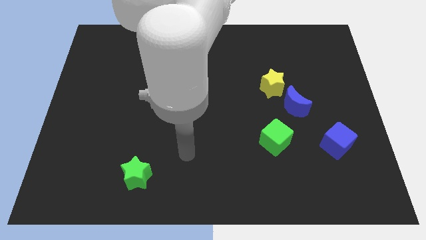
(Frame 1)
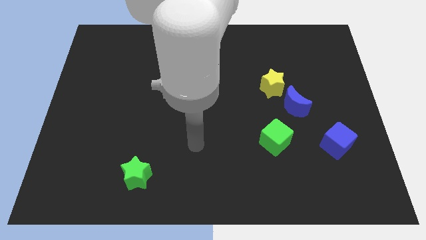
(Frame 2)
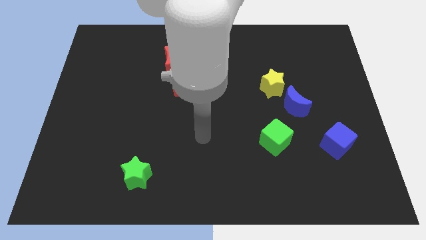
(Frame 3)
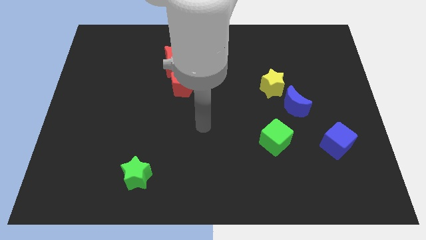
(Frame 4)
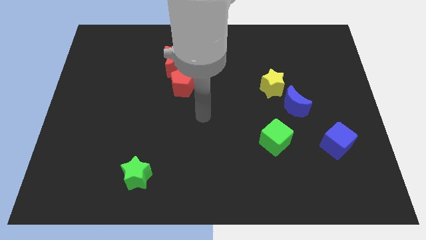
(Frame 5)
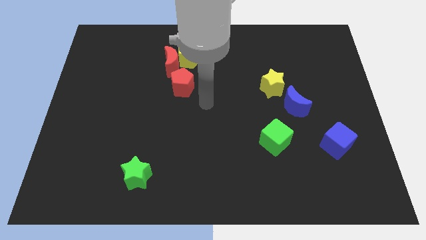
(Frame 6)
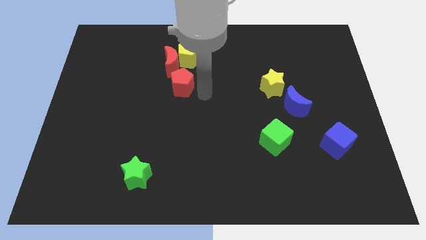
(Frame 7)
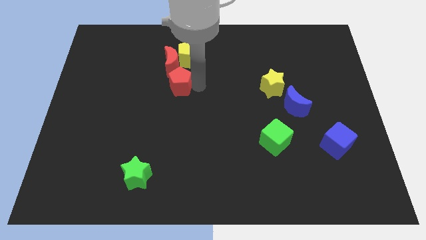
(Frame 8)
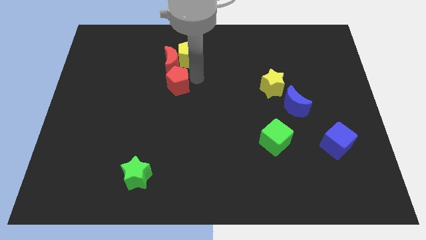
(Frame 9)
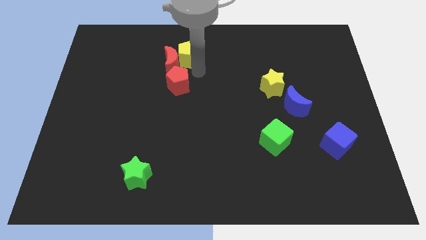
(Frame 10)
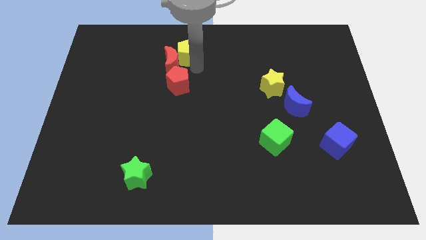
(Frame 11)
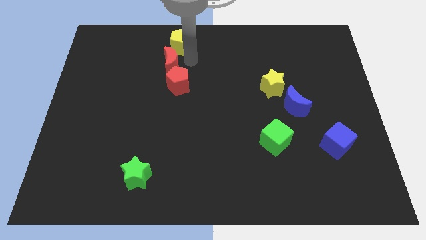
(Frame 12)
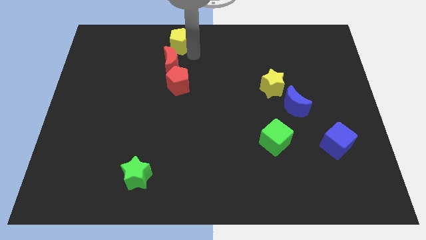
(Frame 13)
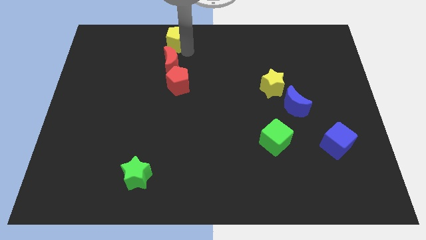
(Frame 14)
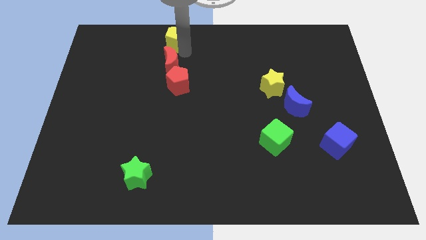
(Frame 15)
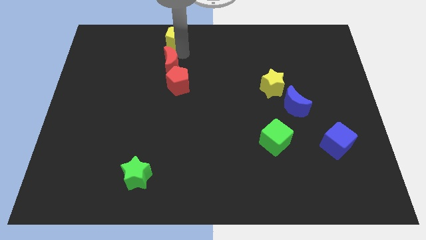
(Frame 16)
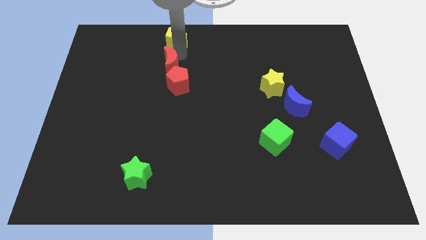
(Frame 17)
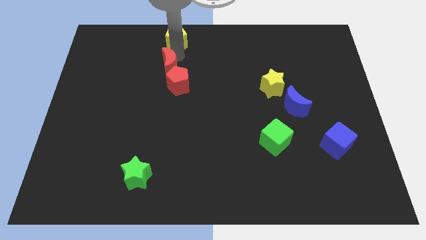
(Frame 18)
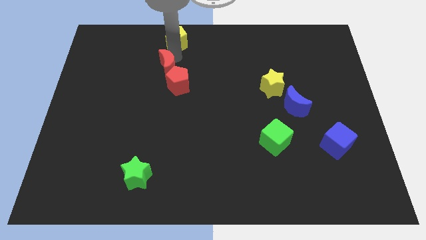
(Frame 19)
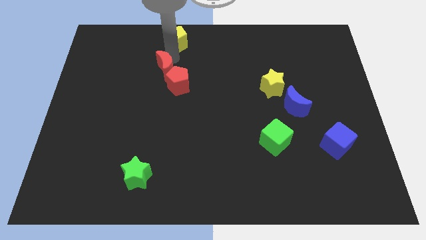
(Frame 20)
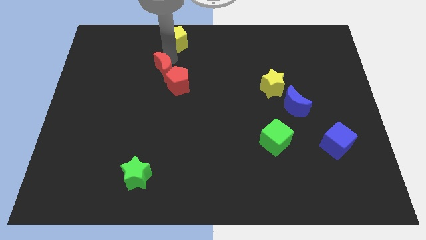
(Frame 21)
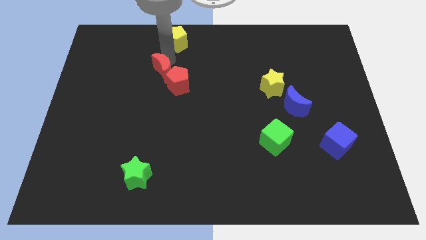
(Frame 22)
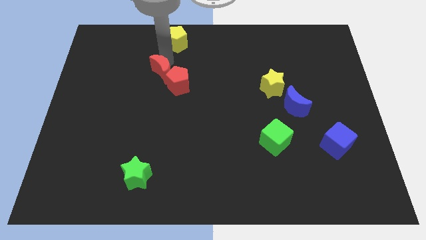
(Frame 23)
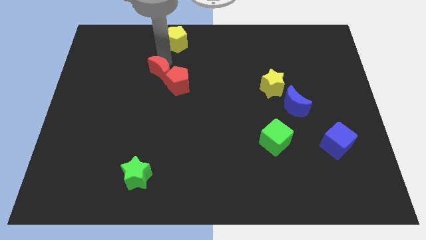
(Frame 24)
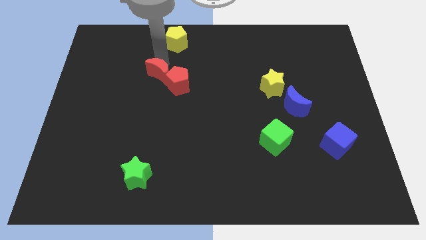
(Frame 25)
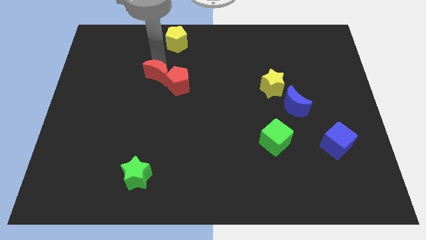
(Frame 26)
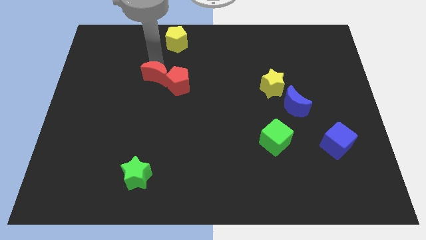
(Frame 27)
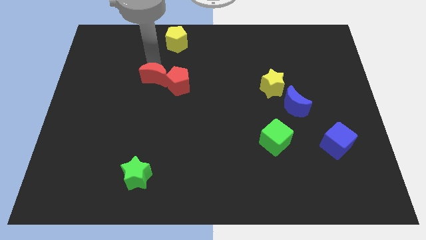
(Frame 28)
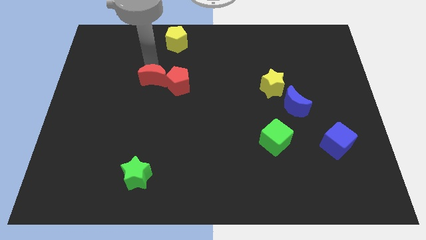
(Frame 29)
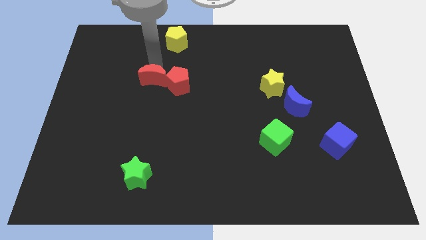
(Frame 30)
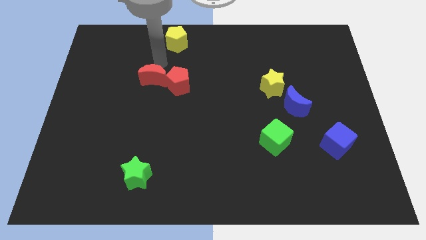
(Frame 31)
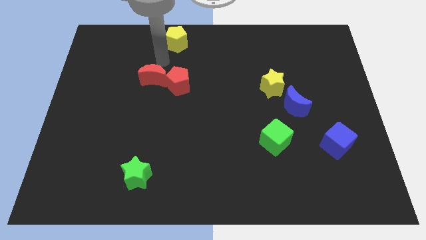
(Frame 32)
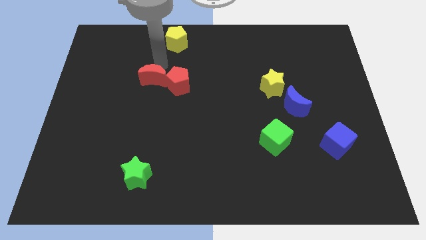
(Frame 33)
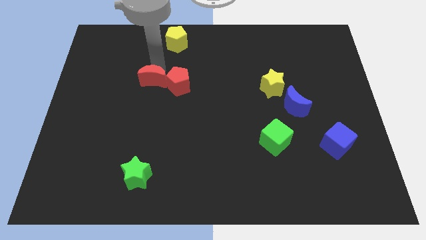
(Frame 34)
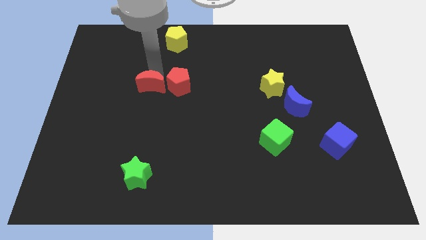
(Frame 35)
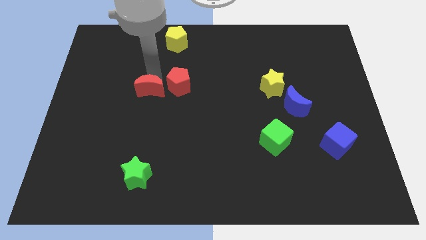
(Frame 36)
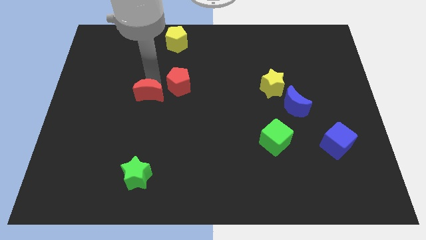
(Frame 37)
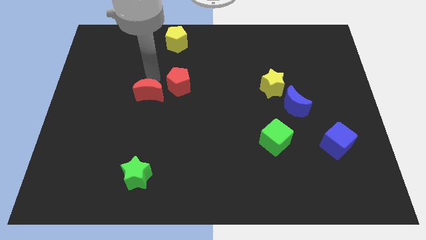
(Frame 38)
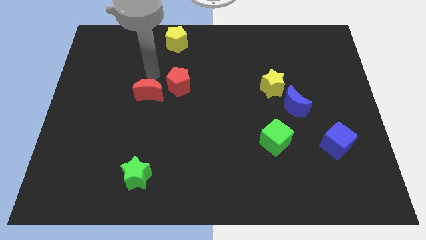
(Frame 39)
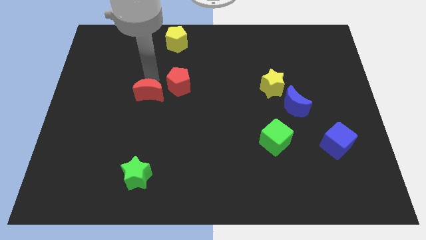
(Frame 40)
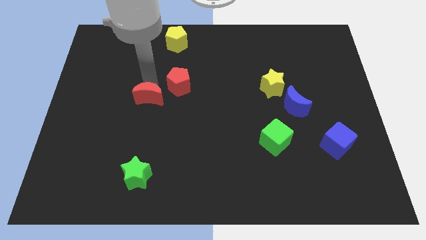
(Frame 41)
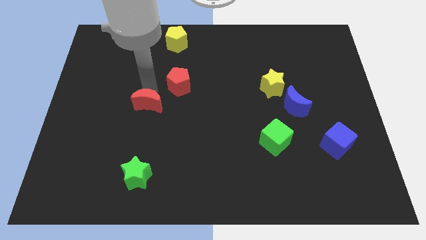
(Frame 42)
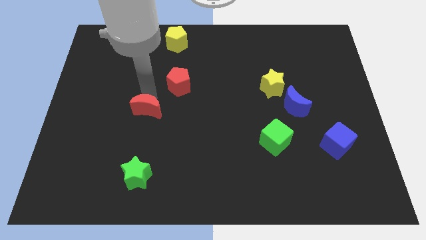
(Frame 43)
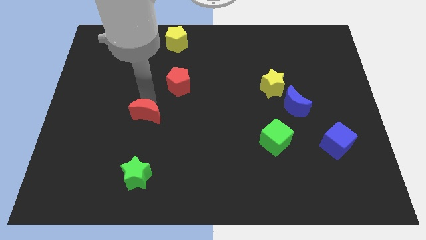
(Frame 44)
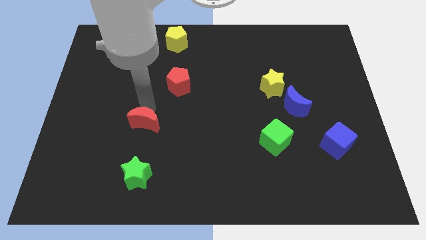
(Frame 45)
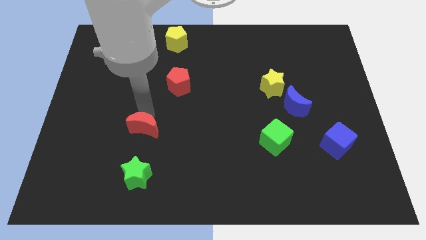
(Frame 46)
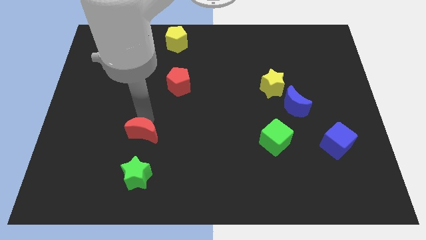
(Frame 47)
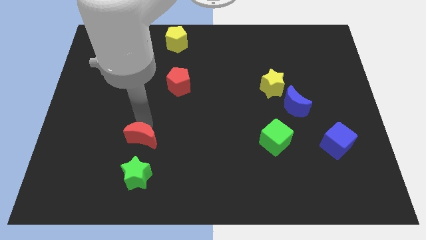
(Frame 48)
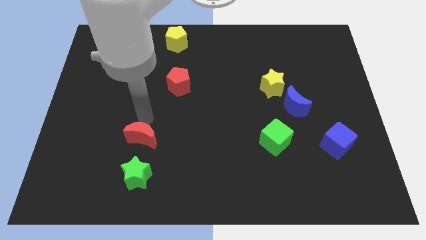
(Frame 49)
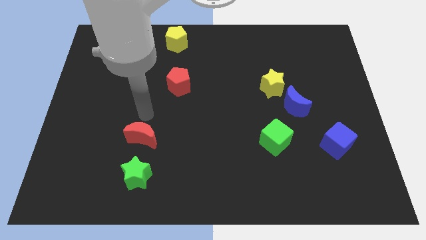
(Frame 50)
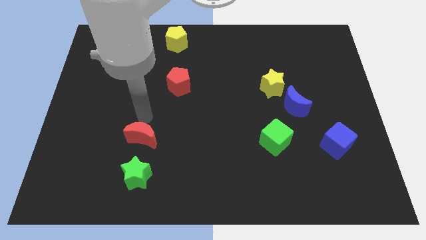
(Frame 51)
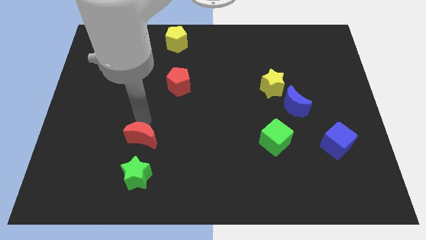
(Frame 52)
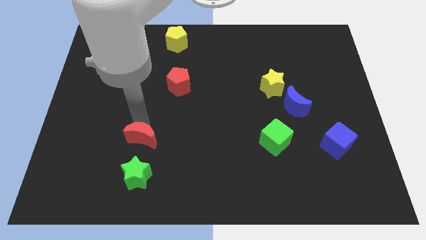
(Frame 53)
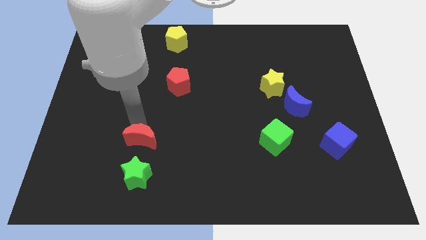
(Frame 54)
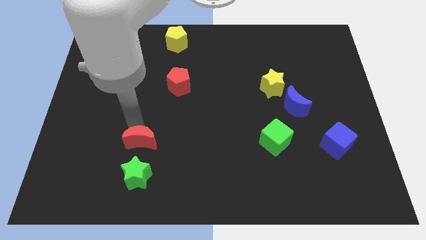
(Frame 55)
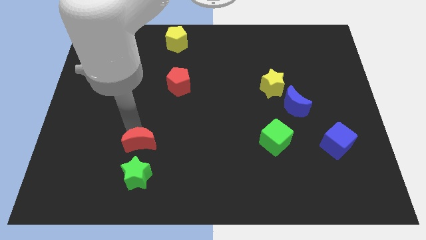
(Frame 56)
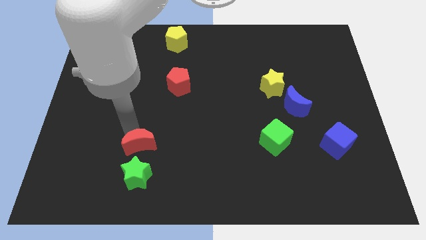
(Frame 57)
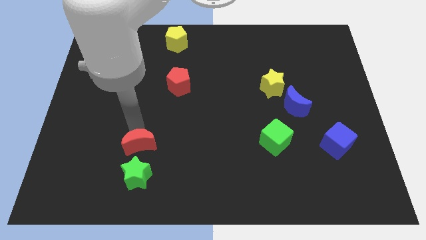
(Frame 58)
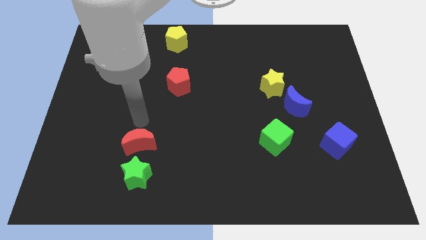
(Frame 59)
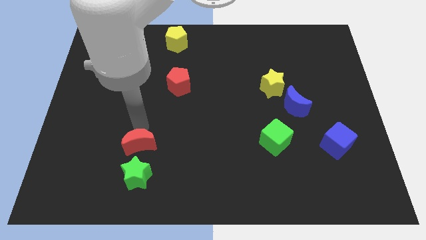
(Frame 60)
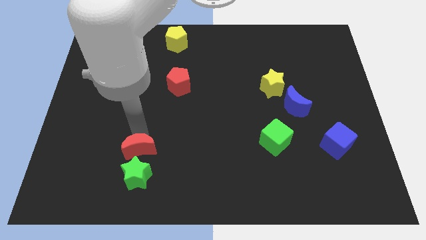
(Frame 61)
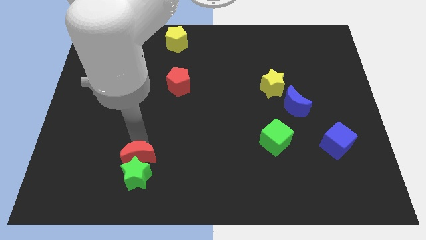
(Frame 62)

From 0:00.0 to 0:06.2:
push the red moon close to the green star
